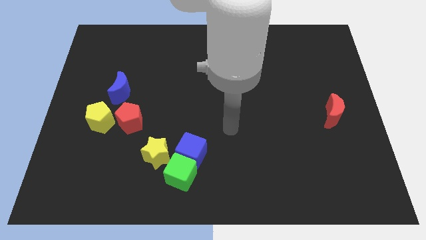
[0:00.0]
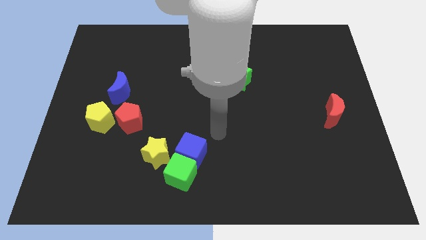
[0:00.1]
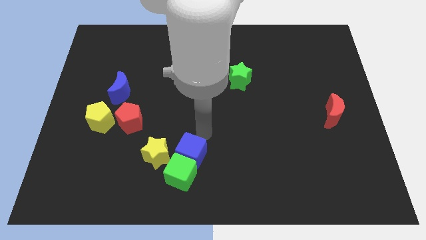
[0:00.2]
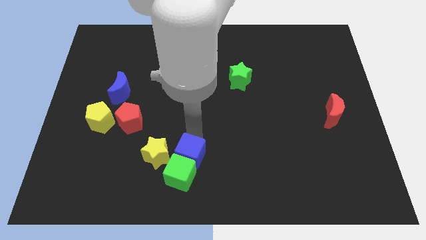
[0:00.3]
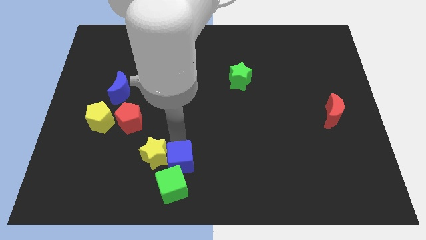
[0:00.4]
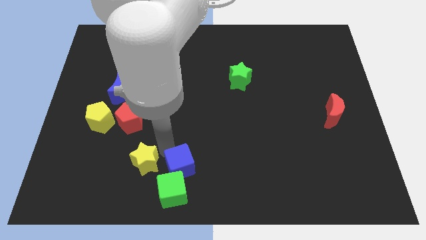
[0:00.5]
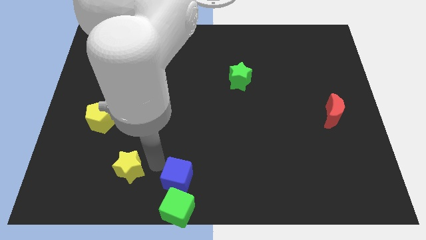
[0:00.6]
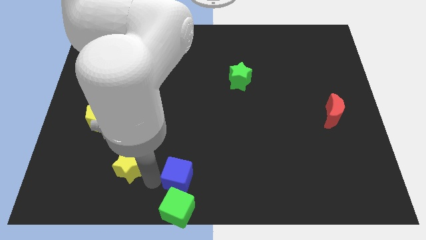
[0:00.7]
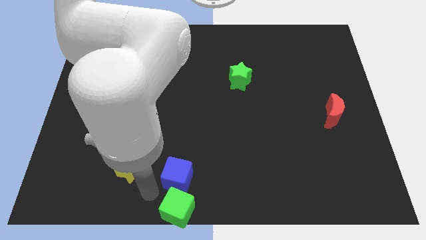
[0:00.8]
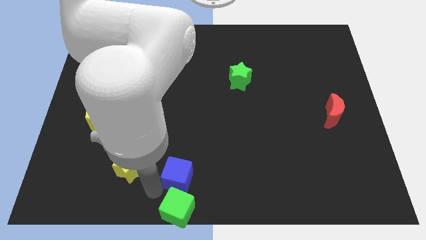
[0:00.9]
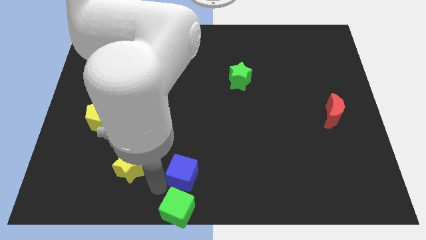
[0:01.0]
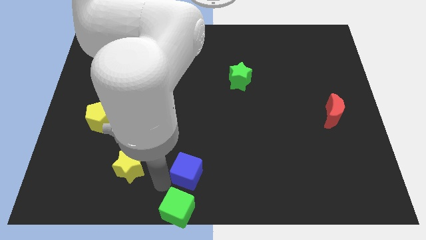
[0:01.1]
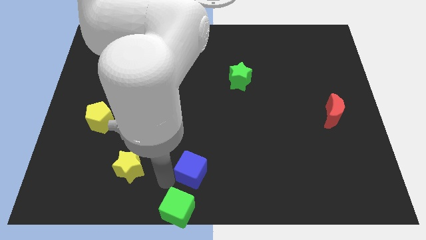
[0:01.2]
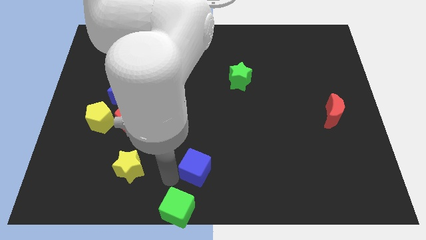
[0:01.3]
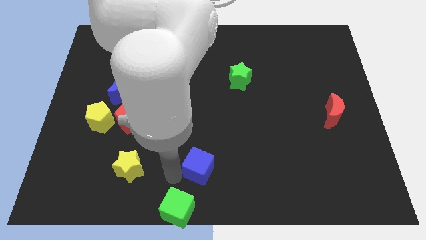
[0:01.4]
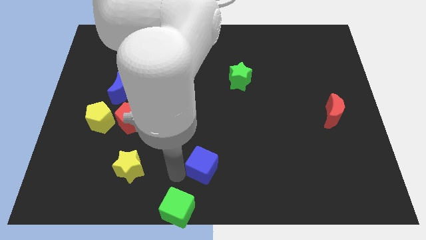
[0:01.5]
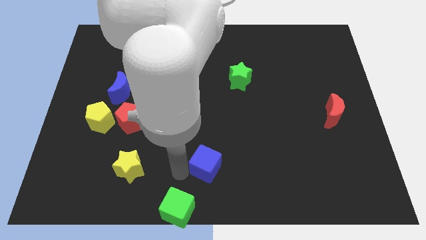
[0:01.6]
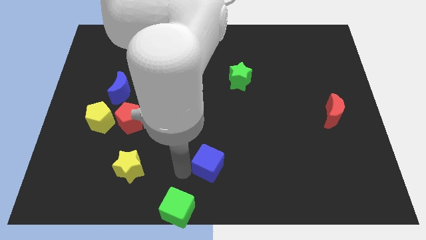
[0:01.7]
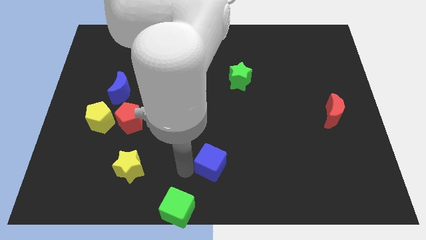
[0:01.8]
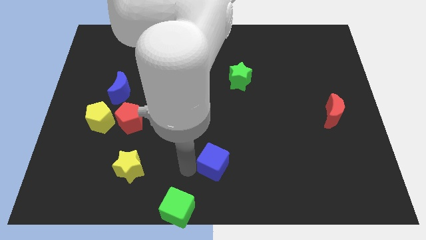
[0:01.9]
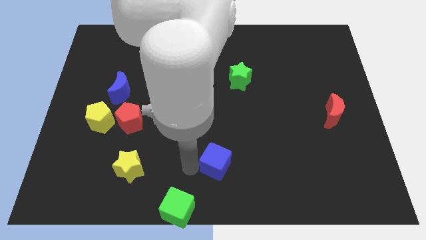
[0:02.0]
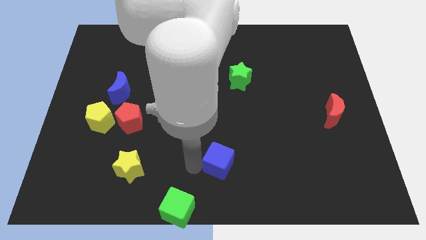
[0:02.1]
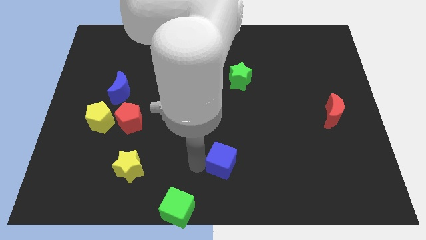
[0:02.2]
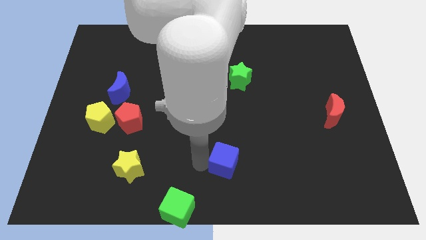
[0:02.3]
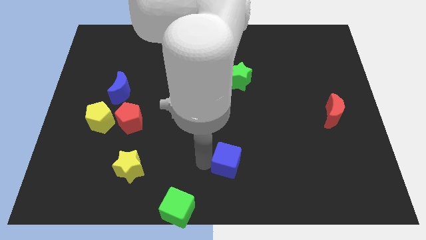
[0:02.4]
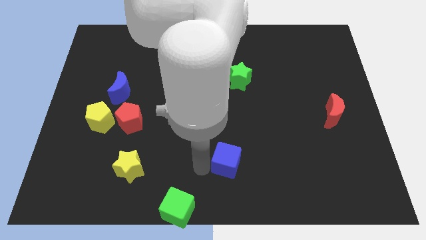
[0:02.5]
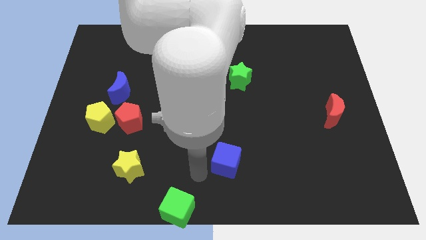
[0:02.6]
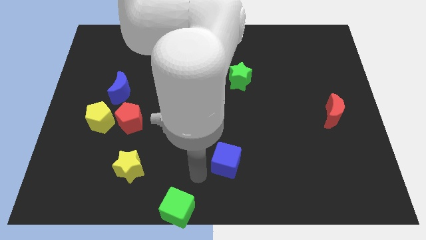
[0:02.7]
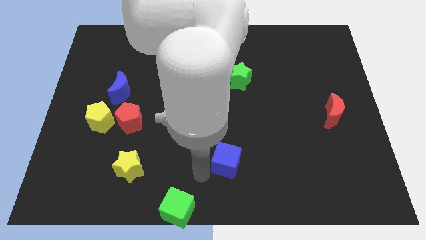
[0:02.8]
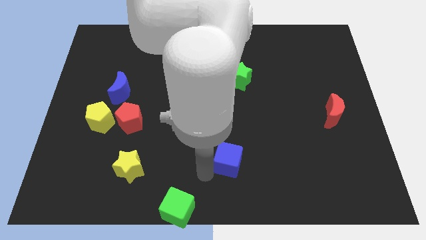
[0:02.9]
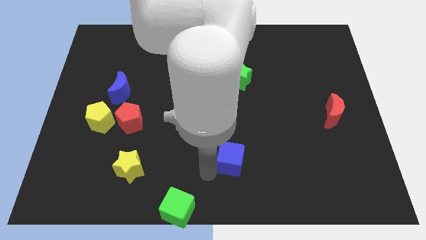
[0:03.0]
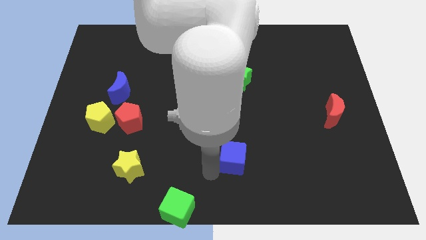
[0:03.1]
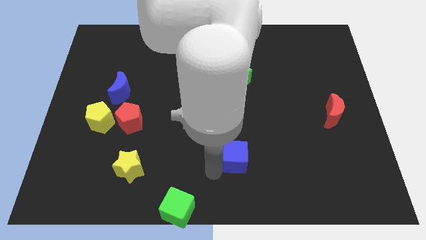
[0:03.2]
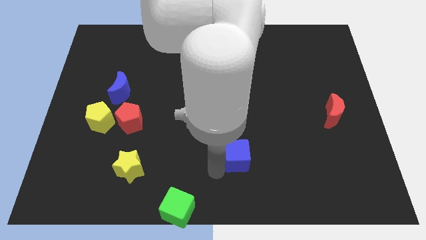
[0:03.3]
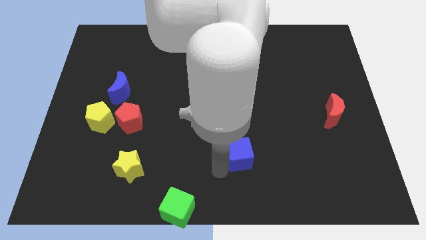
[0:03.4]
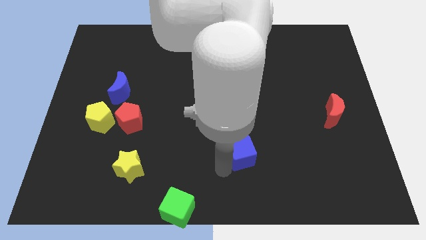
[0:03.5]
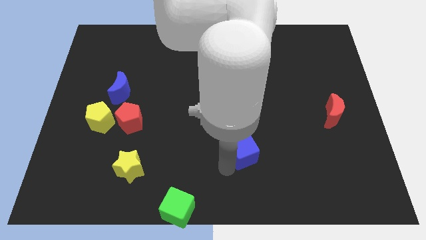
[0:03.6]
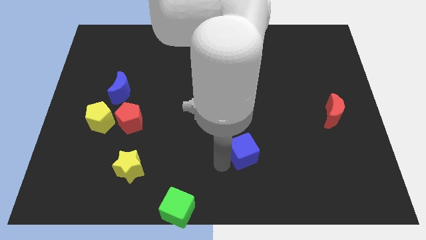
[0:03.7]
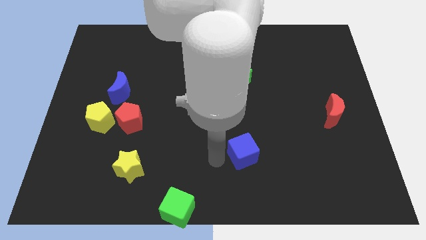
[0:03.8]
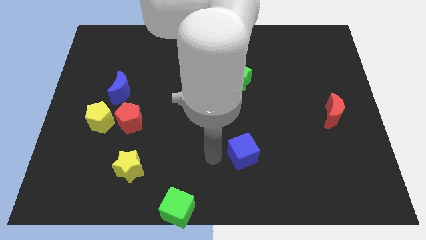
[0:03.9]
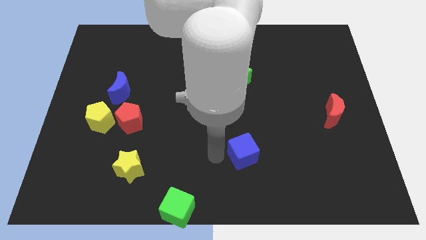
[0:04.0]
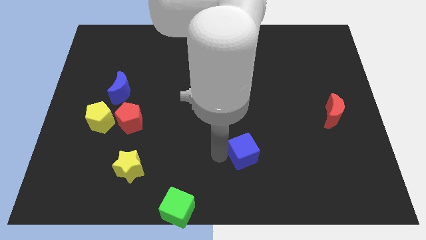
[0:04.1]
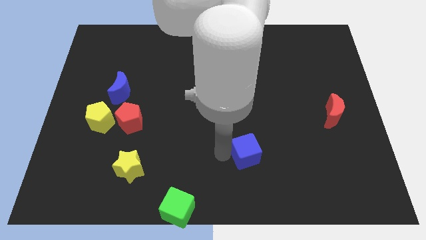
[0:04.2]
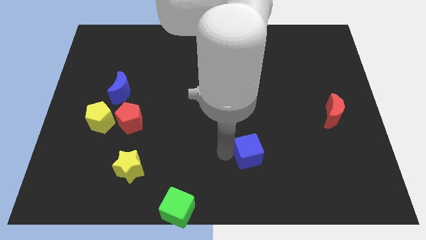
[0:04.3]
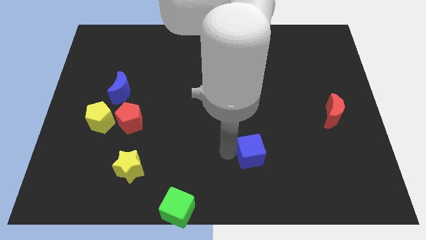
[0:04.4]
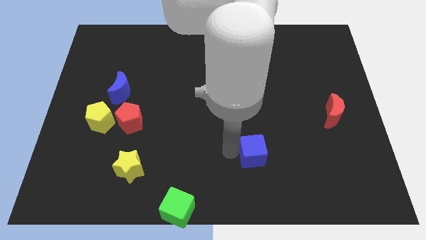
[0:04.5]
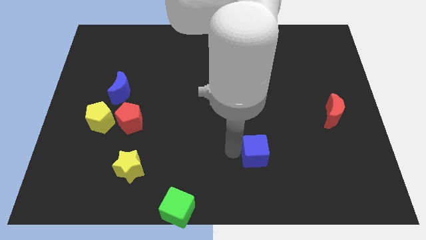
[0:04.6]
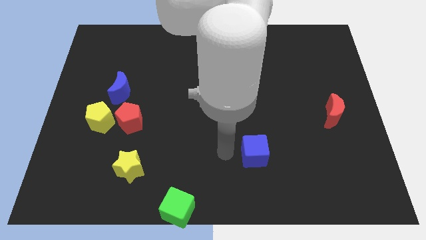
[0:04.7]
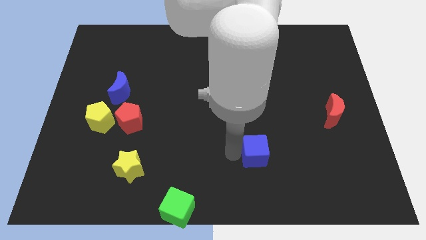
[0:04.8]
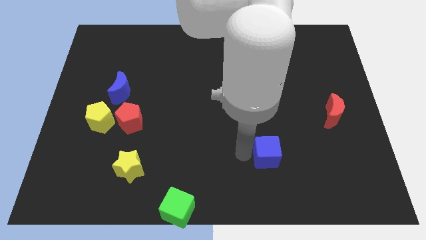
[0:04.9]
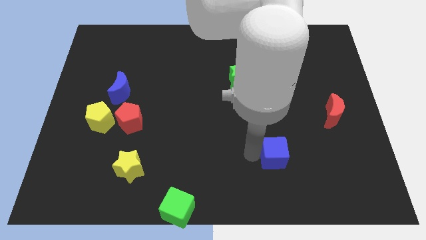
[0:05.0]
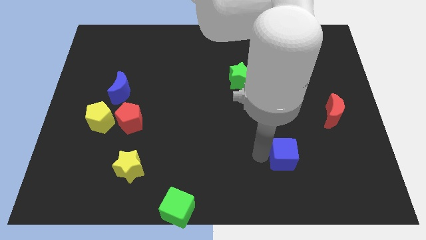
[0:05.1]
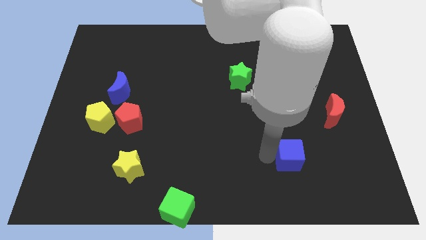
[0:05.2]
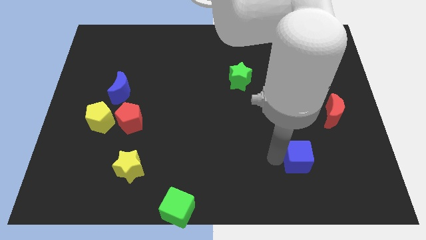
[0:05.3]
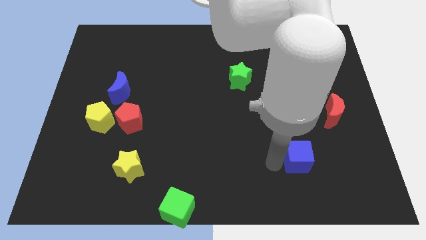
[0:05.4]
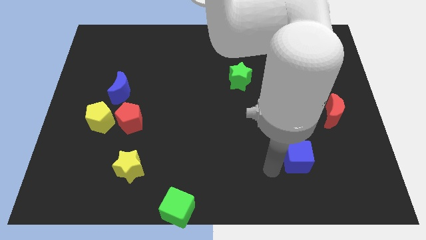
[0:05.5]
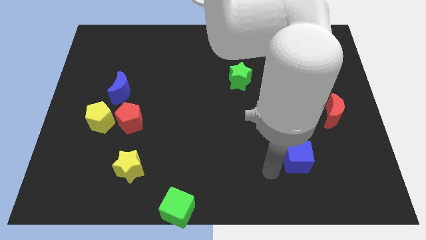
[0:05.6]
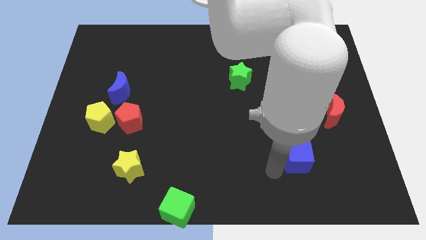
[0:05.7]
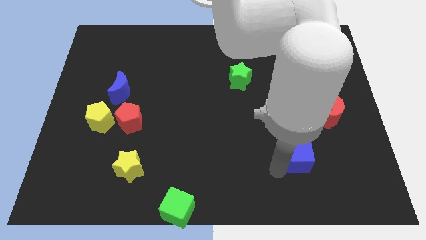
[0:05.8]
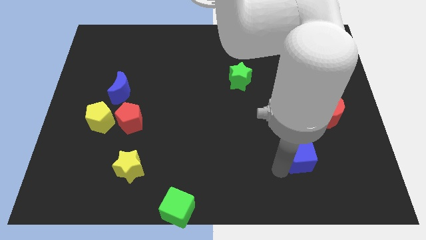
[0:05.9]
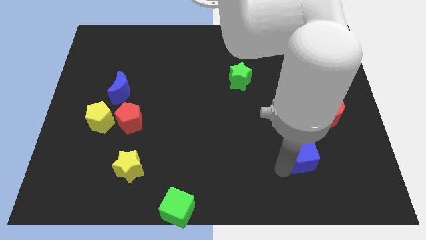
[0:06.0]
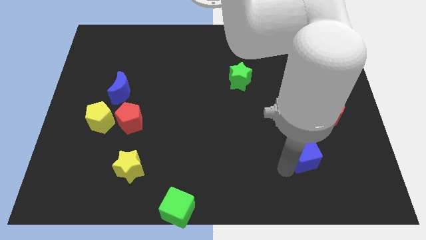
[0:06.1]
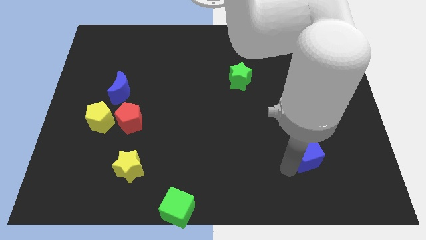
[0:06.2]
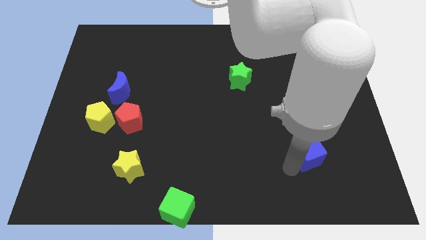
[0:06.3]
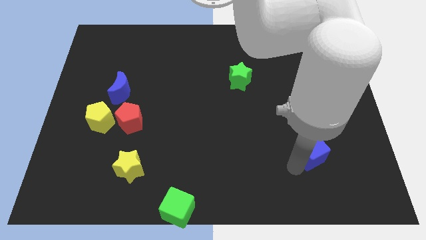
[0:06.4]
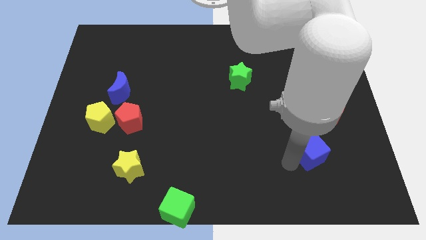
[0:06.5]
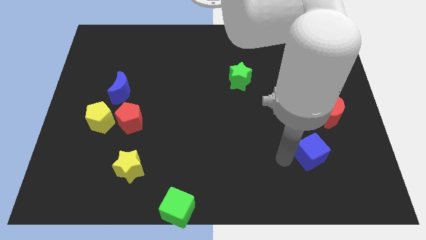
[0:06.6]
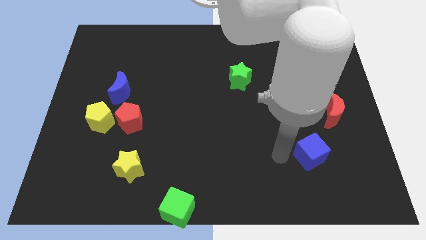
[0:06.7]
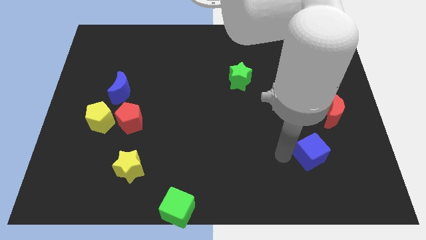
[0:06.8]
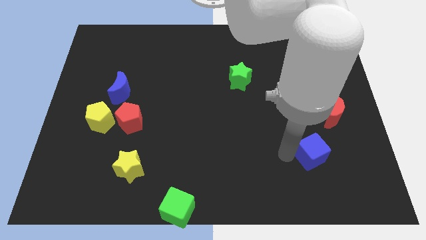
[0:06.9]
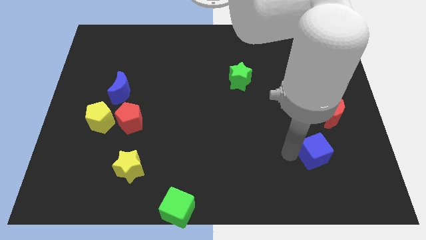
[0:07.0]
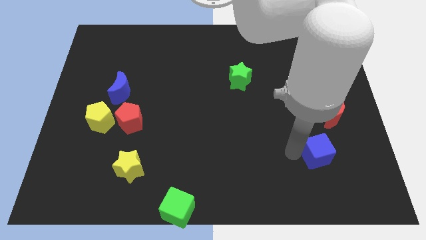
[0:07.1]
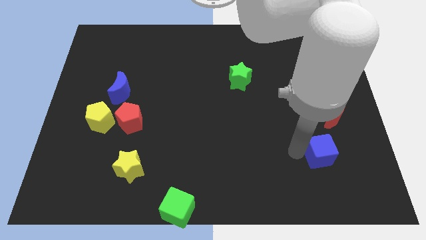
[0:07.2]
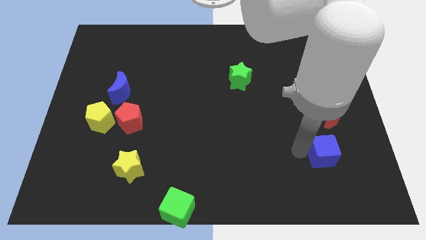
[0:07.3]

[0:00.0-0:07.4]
push the blue cube to the bottom side of the red moon
